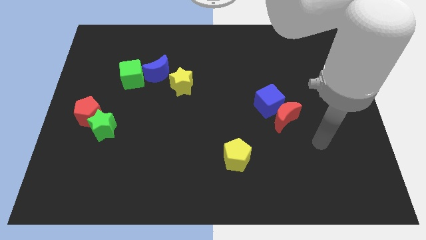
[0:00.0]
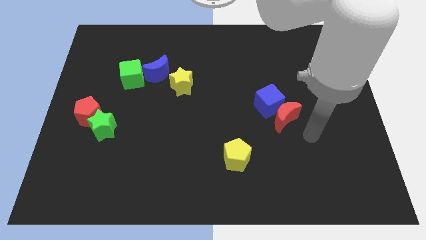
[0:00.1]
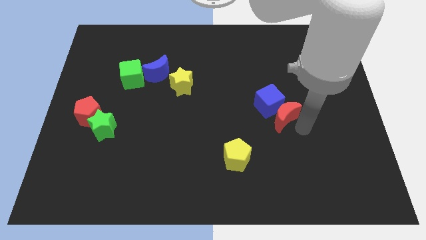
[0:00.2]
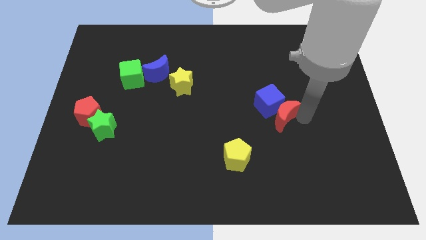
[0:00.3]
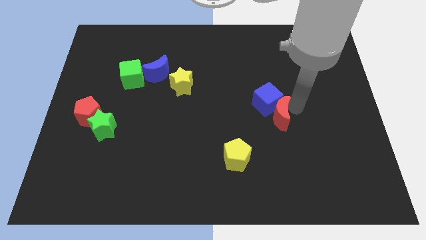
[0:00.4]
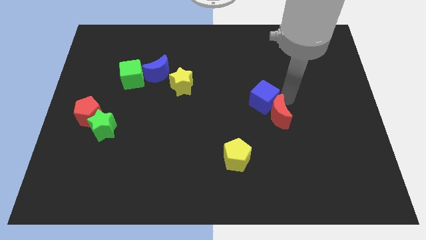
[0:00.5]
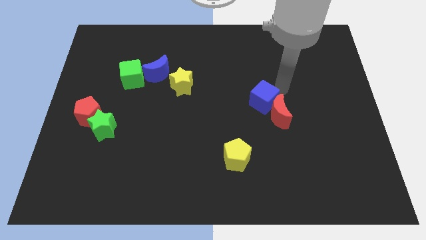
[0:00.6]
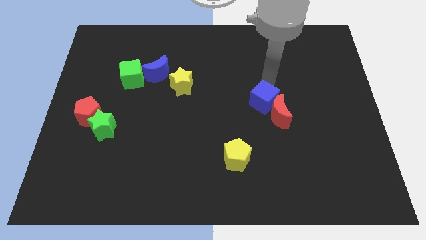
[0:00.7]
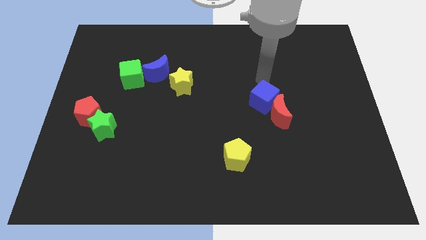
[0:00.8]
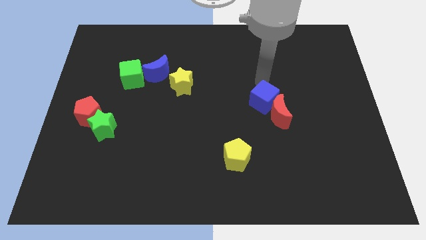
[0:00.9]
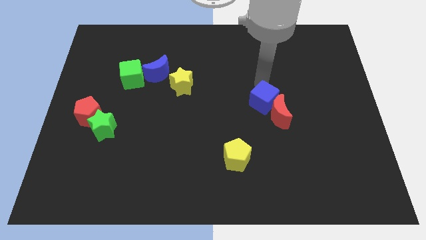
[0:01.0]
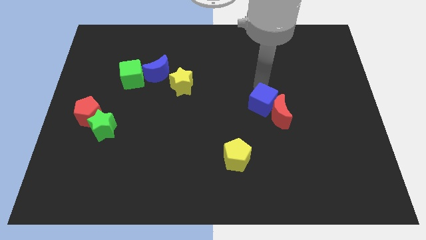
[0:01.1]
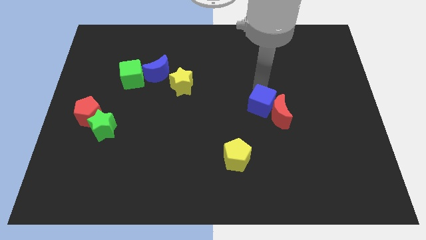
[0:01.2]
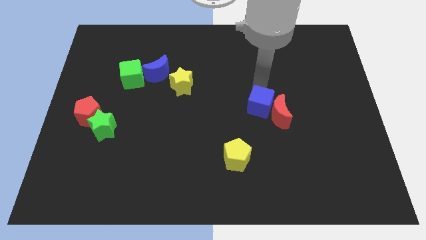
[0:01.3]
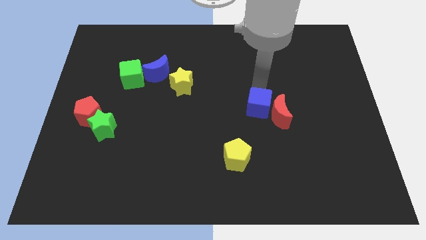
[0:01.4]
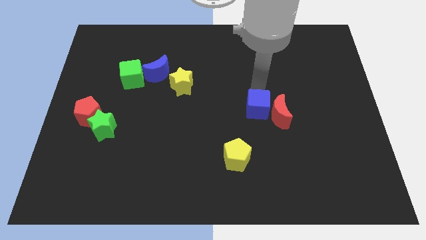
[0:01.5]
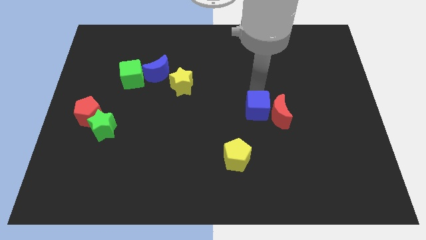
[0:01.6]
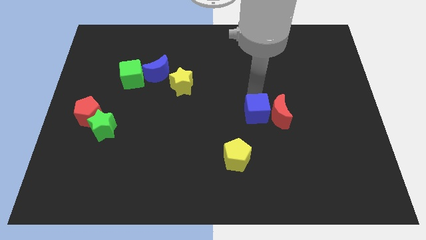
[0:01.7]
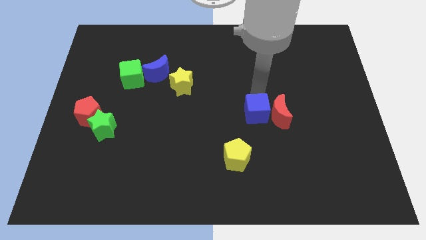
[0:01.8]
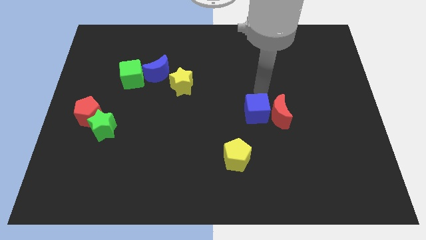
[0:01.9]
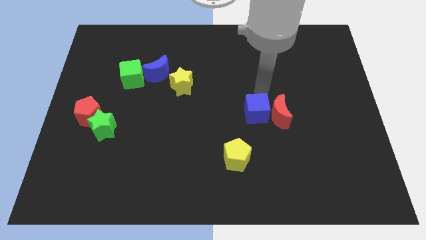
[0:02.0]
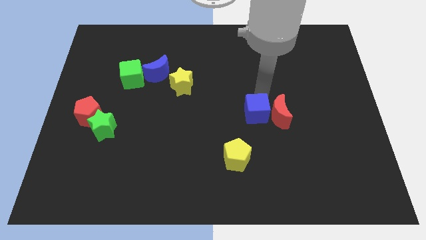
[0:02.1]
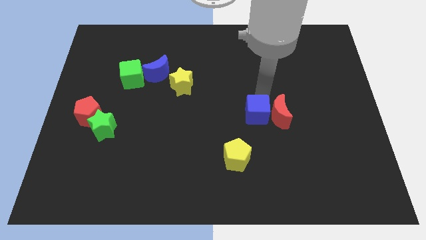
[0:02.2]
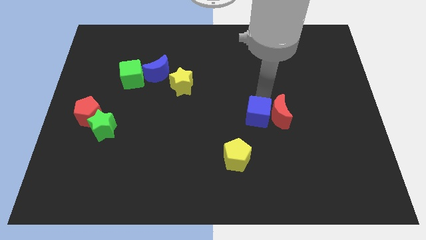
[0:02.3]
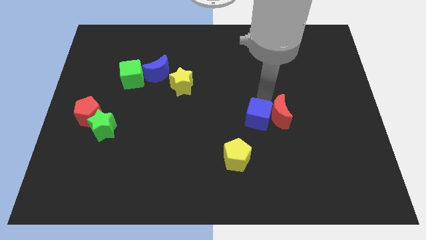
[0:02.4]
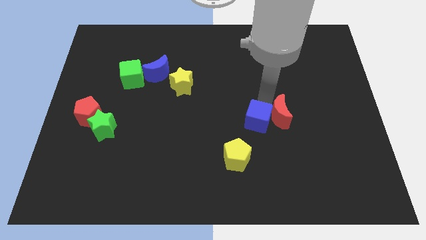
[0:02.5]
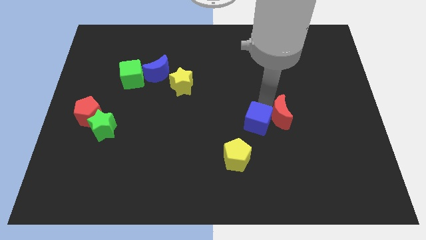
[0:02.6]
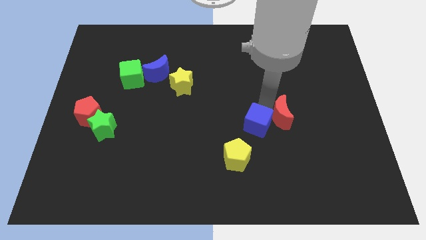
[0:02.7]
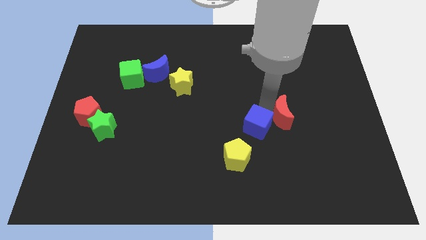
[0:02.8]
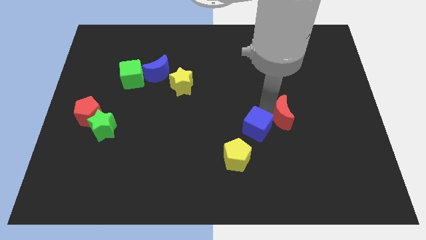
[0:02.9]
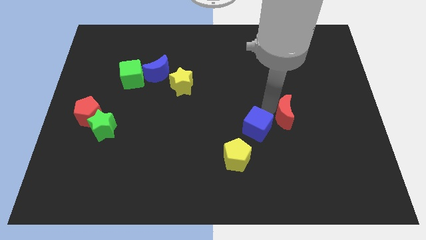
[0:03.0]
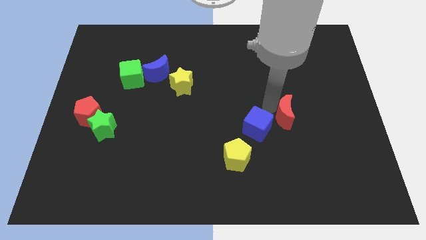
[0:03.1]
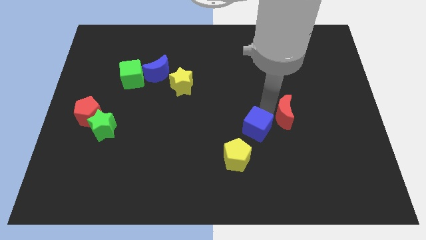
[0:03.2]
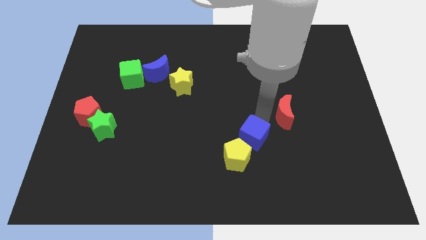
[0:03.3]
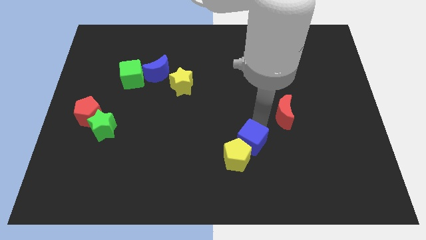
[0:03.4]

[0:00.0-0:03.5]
move the blue cube next to the yellow pentagon

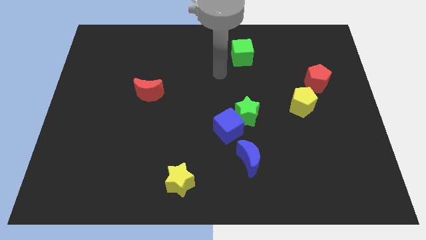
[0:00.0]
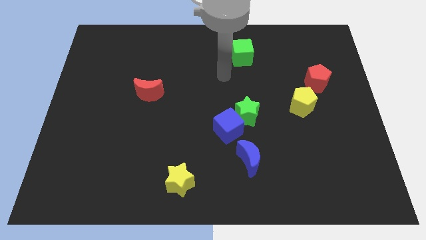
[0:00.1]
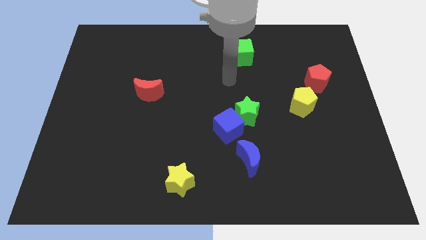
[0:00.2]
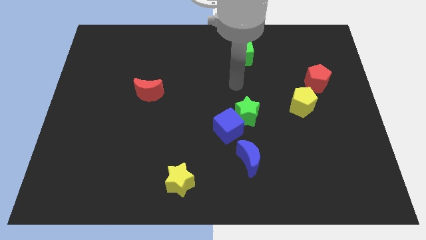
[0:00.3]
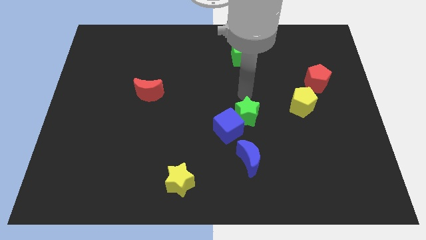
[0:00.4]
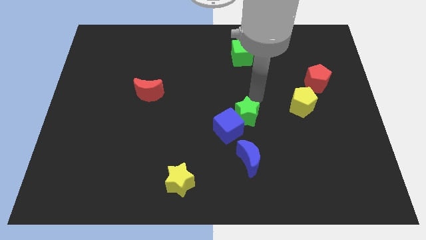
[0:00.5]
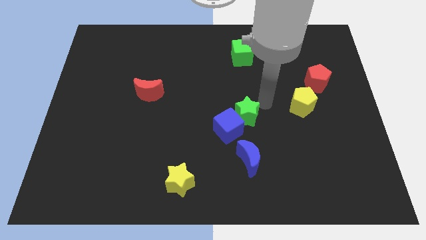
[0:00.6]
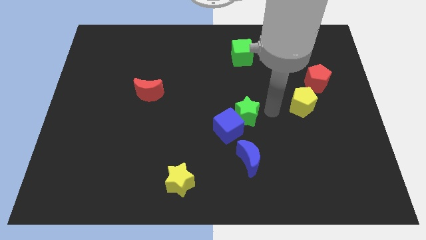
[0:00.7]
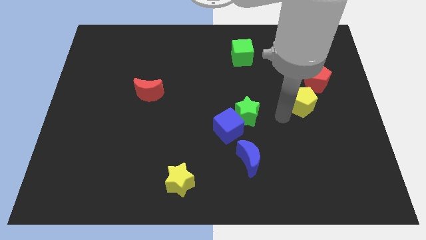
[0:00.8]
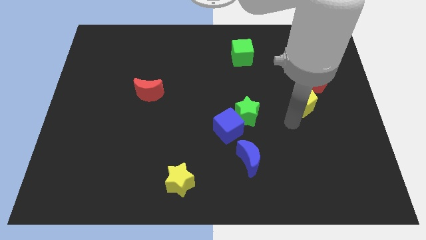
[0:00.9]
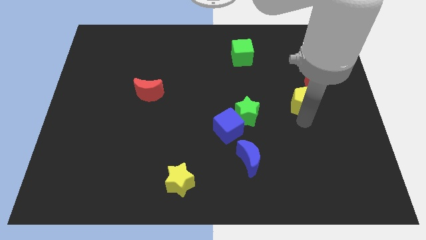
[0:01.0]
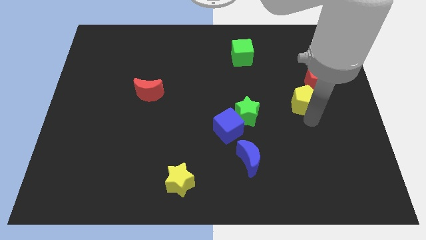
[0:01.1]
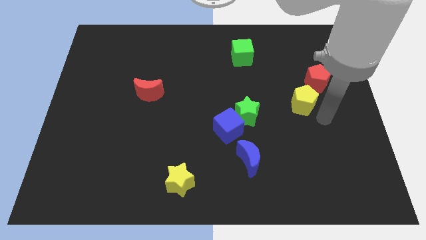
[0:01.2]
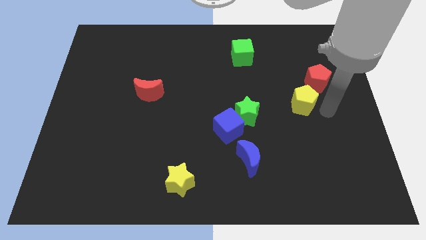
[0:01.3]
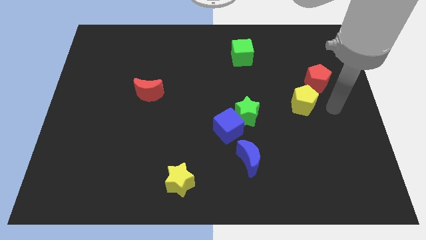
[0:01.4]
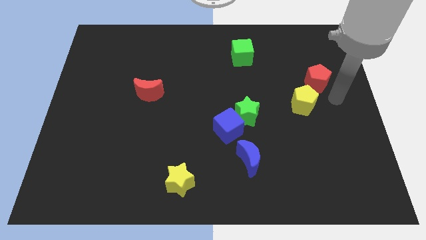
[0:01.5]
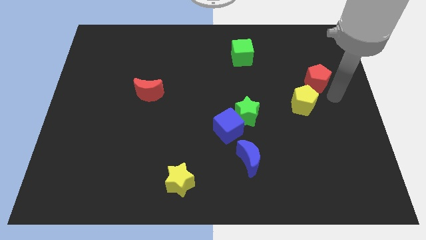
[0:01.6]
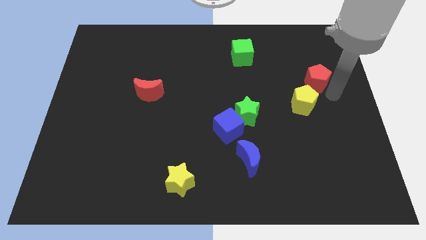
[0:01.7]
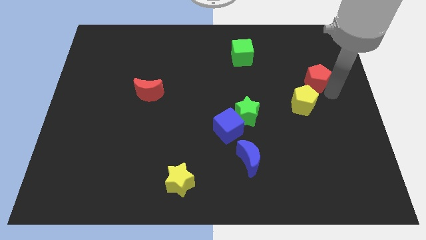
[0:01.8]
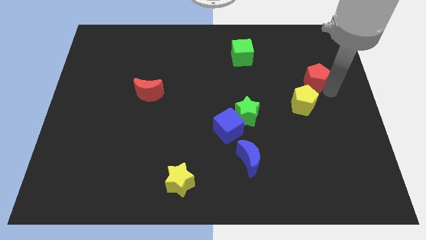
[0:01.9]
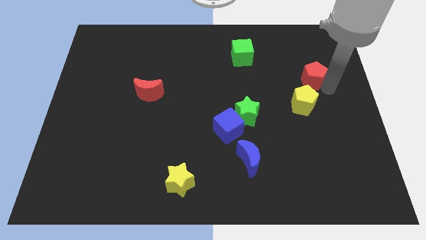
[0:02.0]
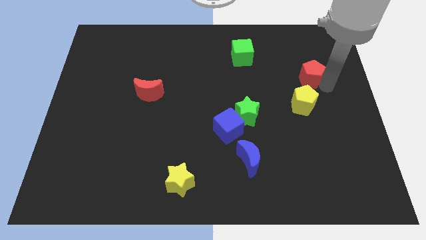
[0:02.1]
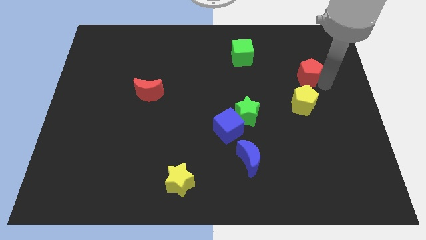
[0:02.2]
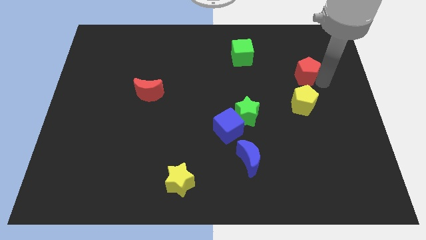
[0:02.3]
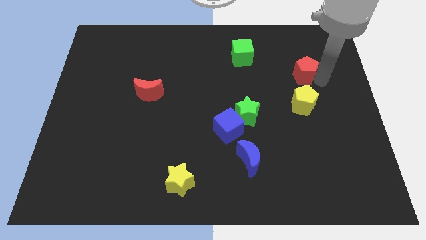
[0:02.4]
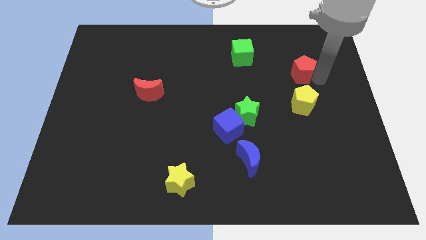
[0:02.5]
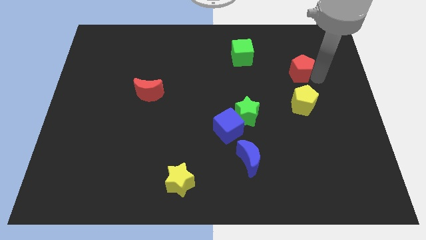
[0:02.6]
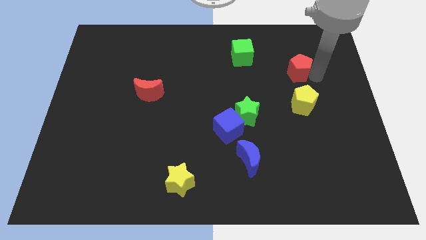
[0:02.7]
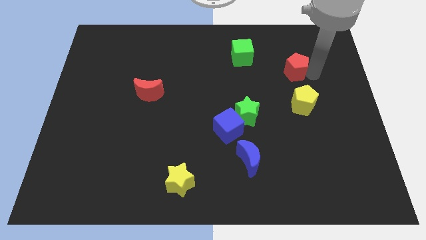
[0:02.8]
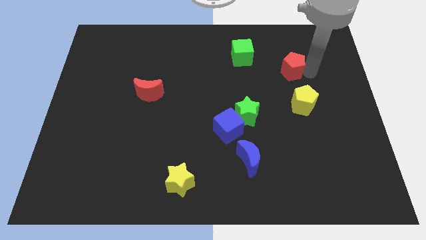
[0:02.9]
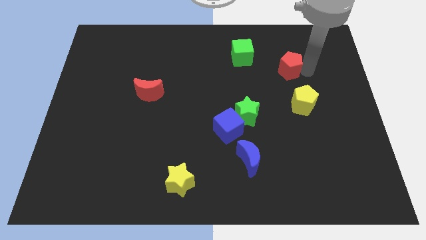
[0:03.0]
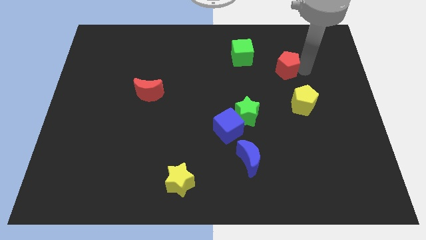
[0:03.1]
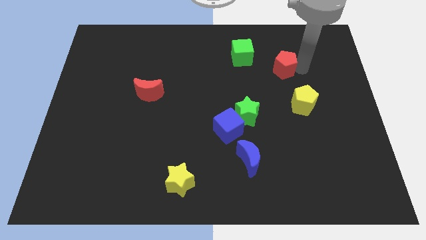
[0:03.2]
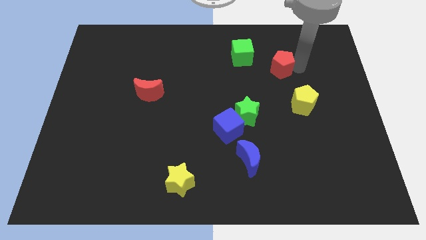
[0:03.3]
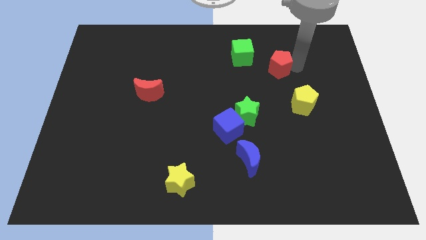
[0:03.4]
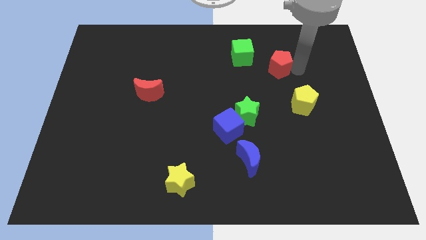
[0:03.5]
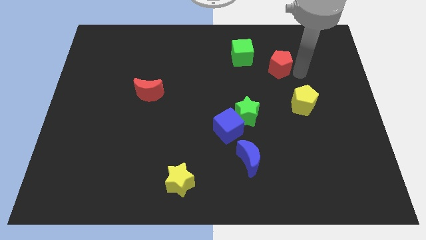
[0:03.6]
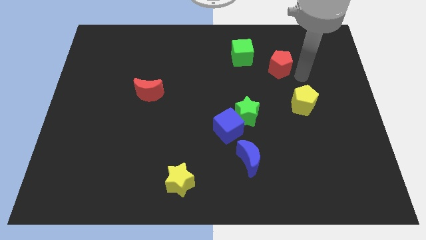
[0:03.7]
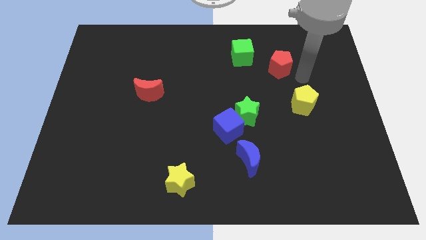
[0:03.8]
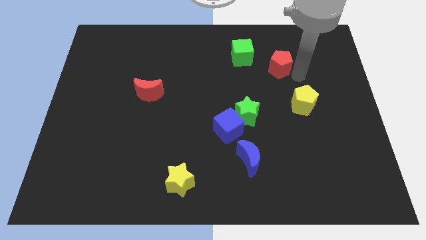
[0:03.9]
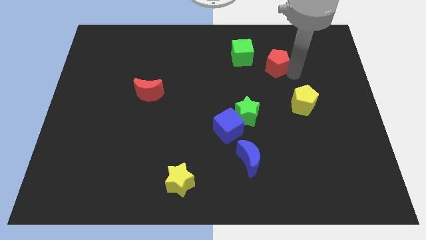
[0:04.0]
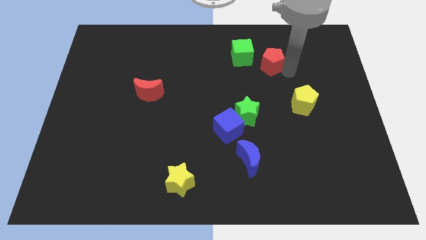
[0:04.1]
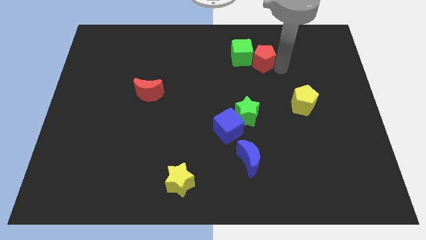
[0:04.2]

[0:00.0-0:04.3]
slide the red pentagon to the green cube
